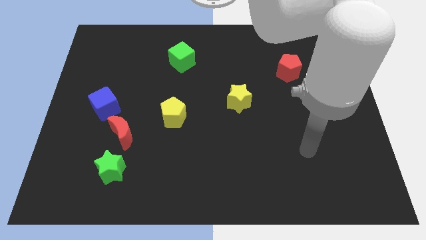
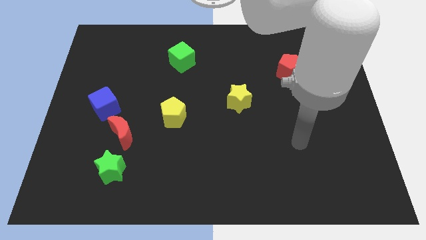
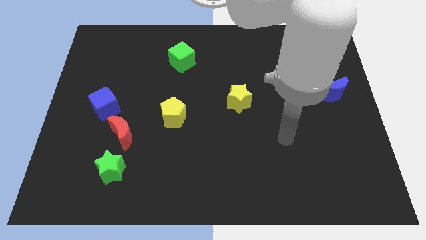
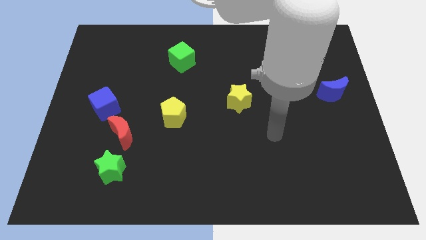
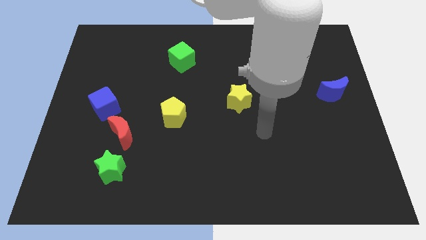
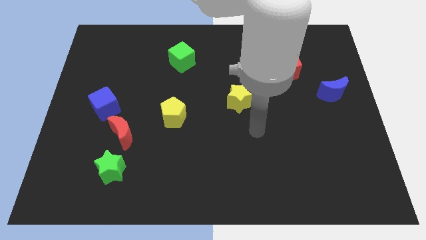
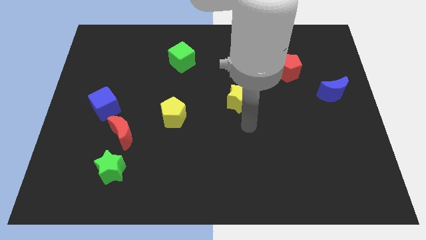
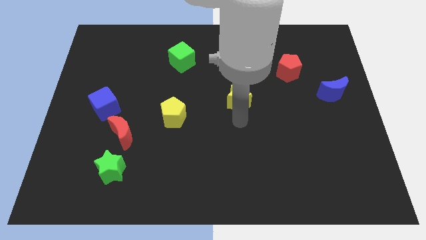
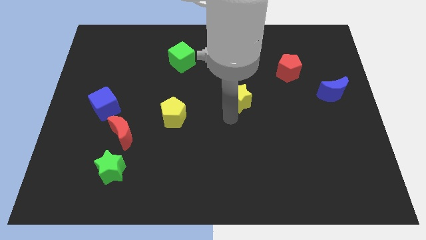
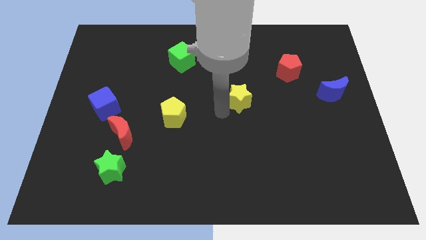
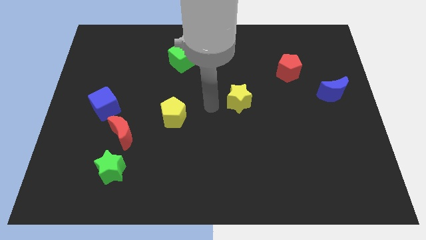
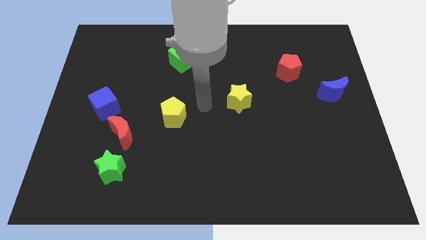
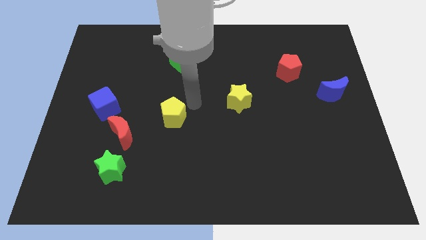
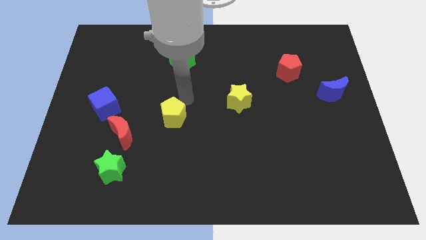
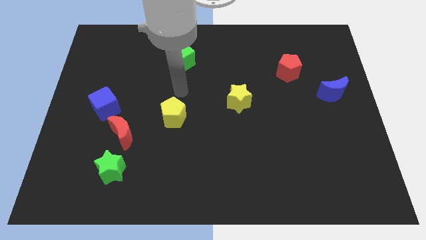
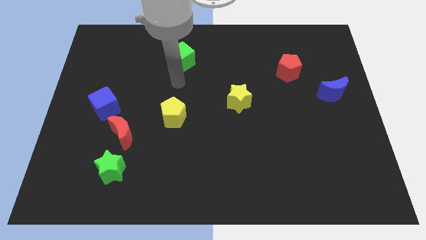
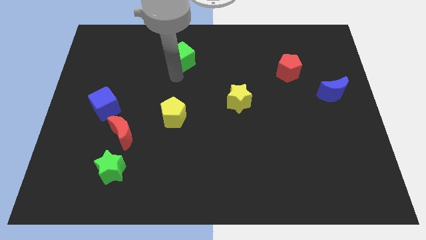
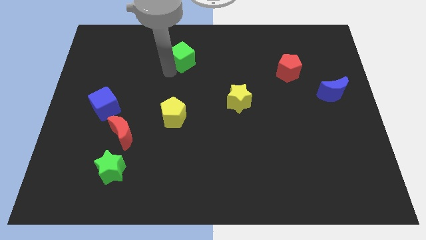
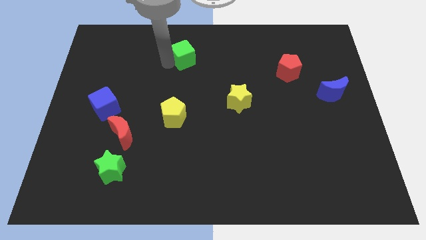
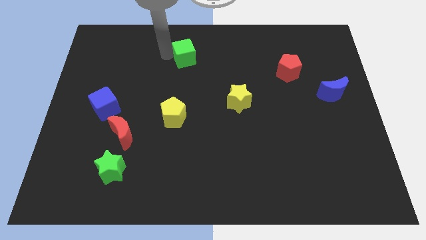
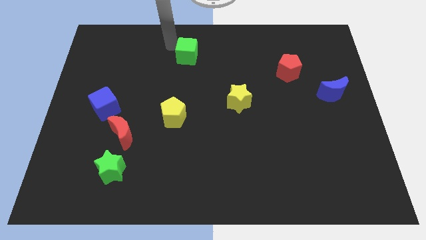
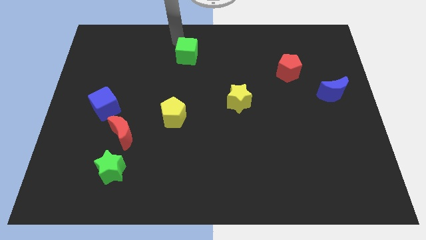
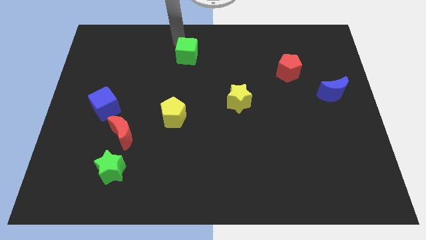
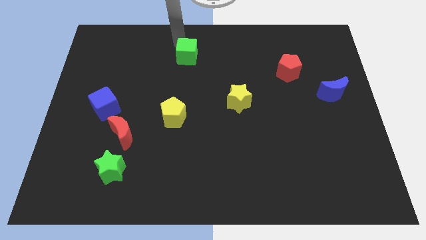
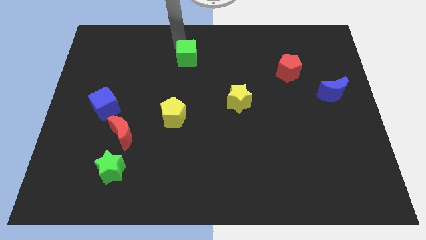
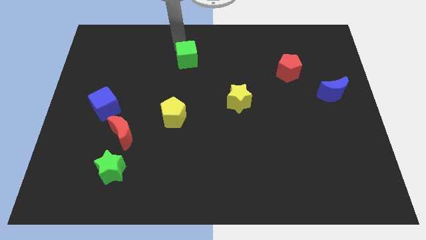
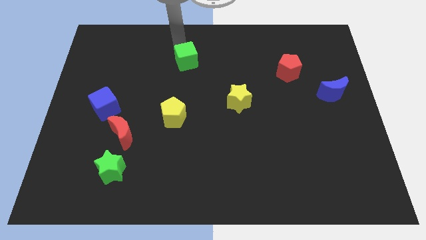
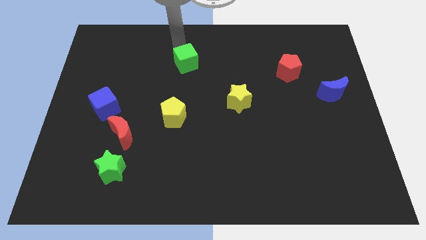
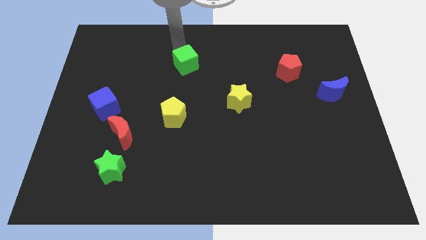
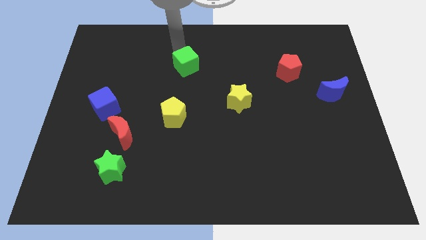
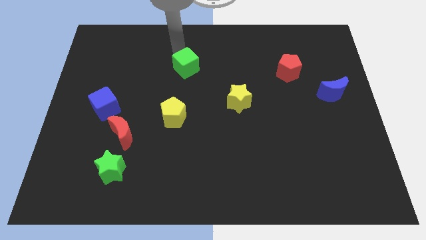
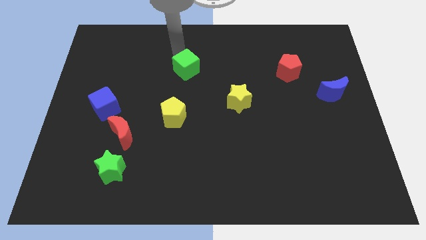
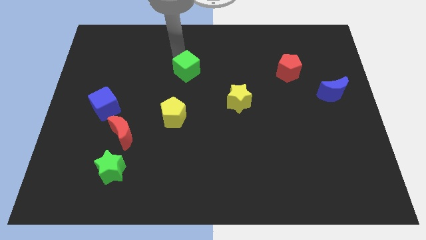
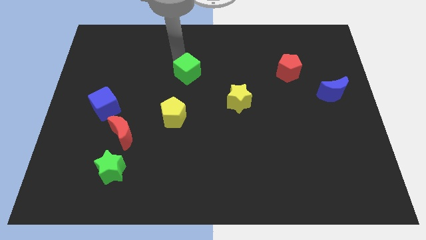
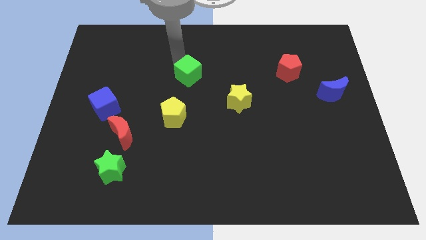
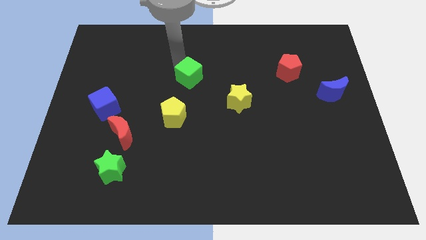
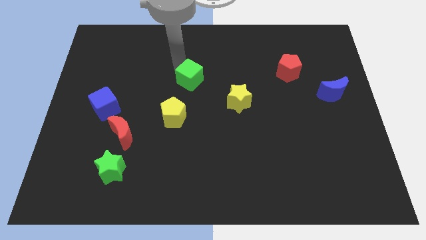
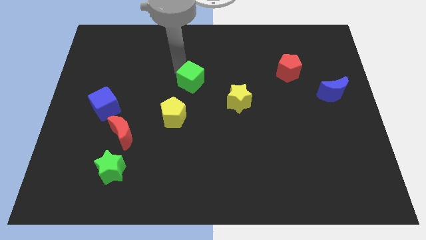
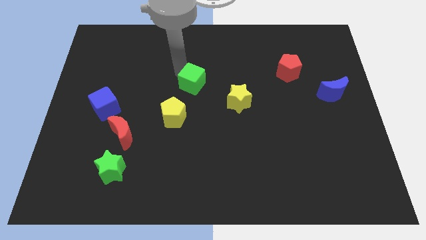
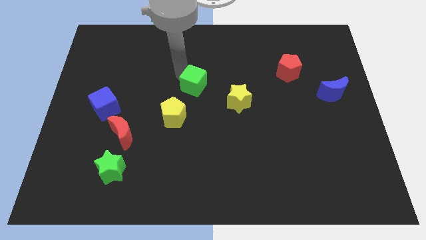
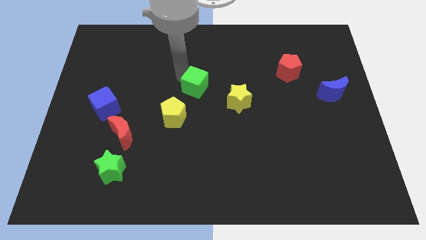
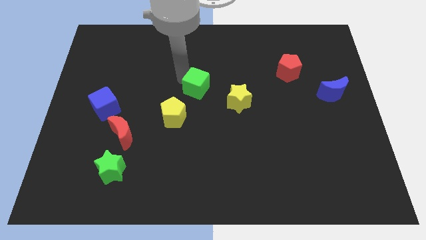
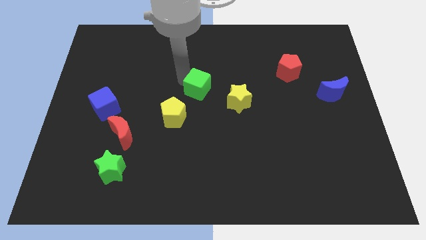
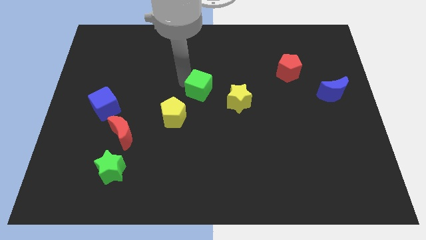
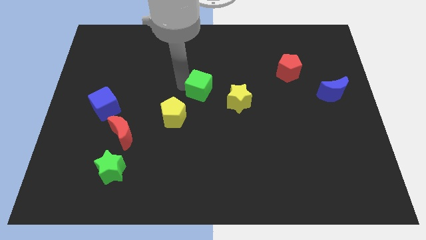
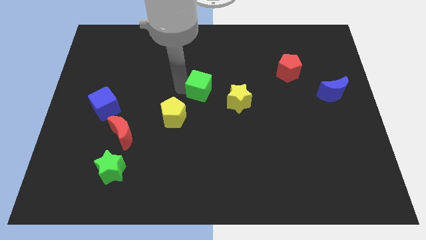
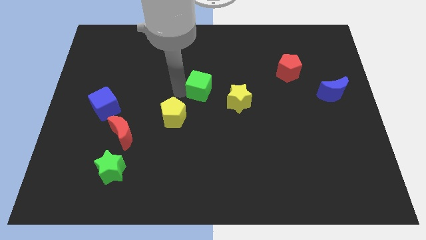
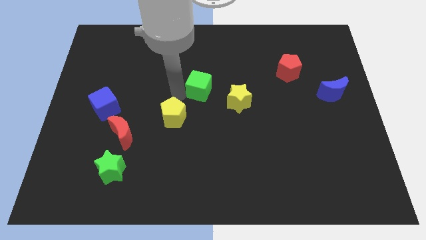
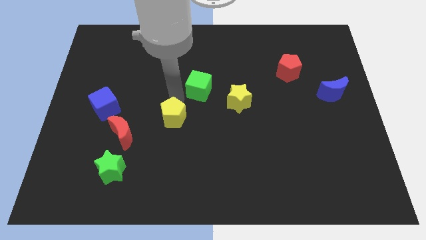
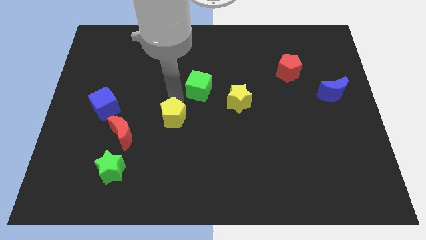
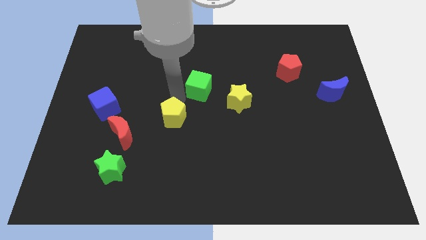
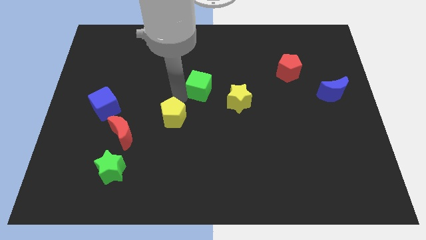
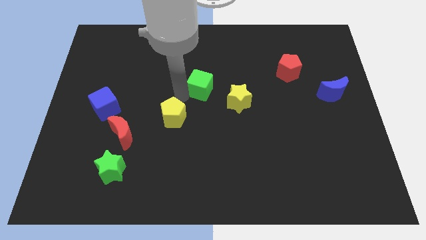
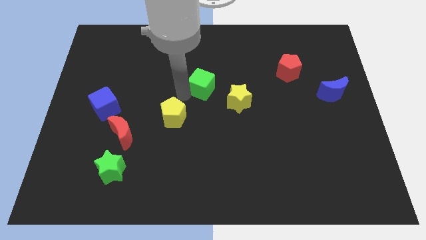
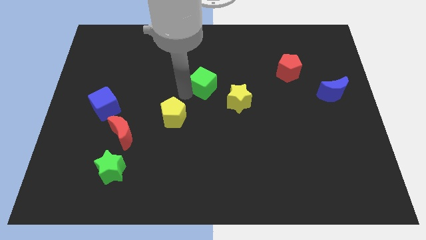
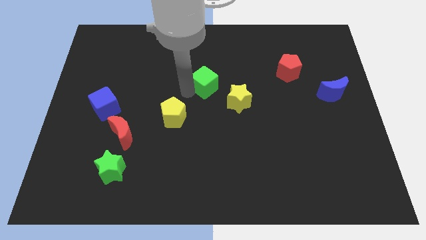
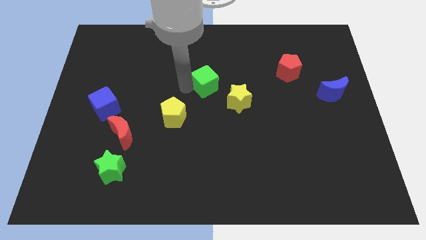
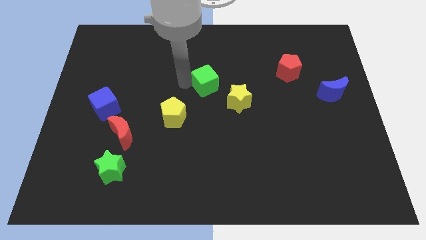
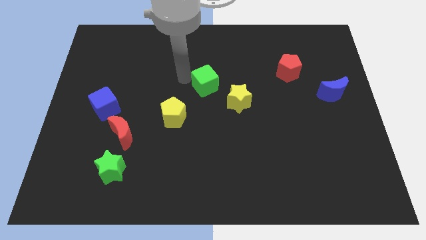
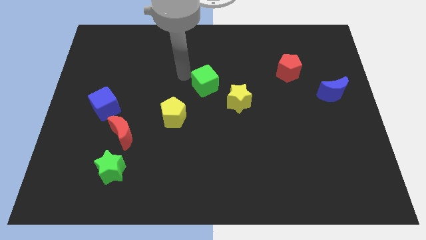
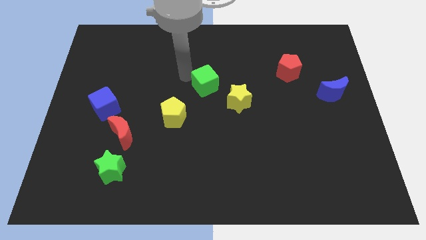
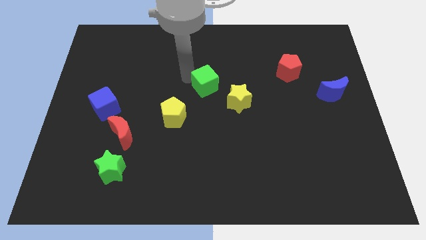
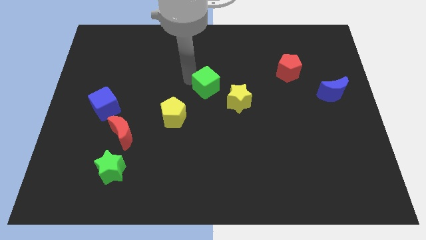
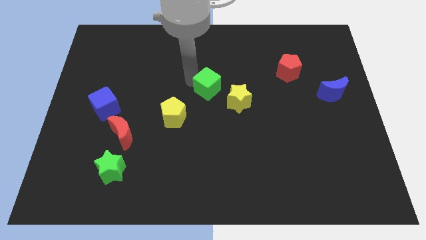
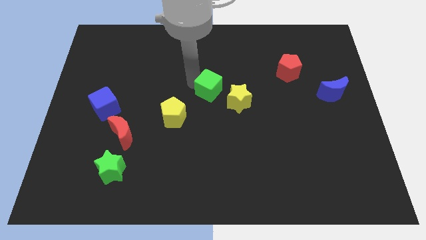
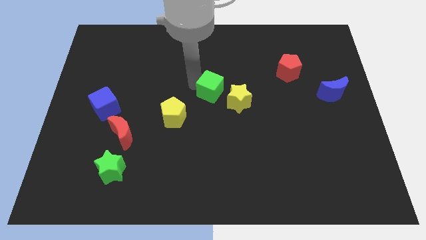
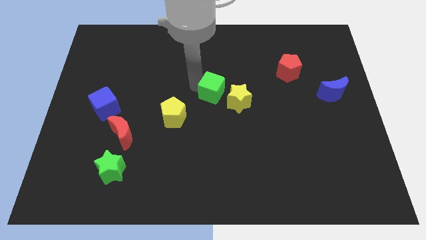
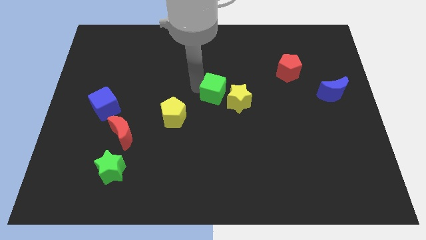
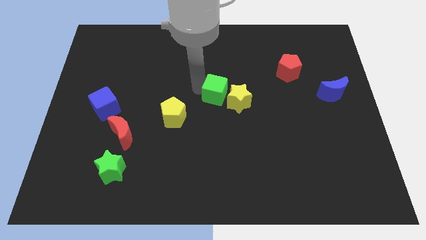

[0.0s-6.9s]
slide the green cube next to the yellow star

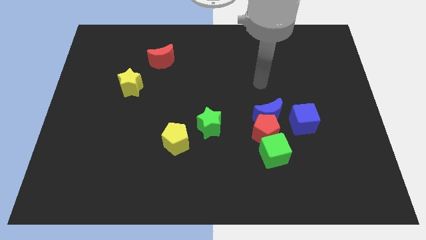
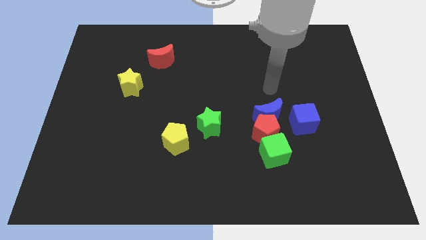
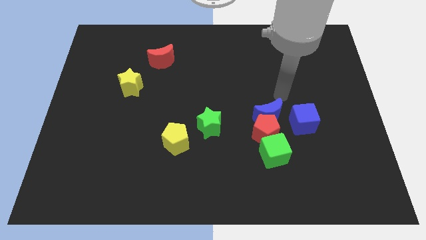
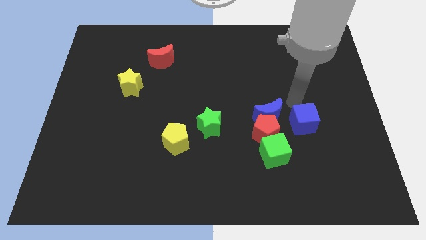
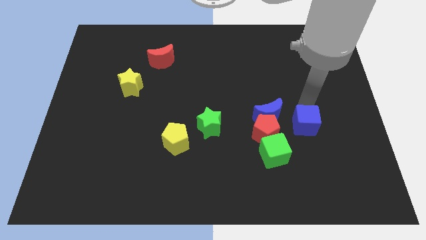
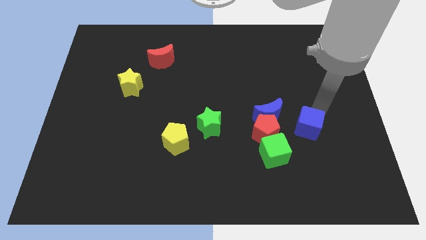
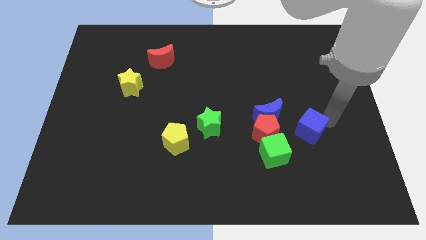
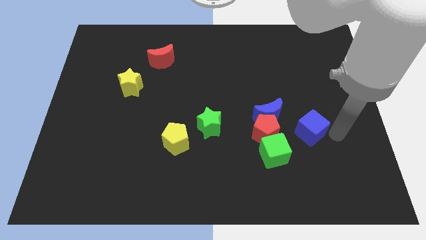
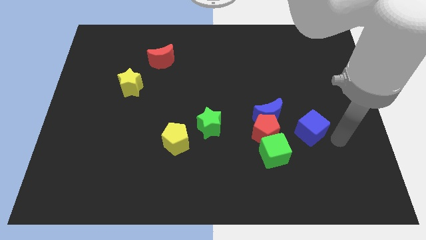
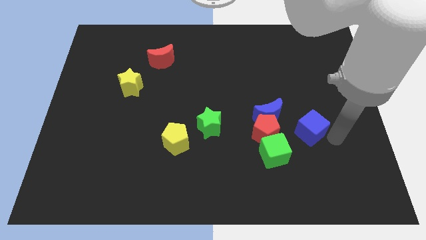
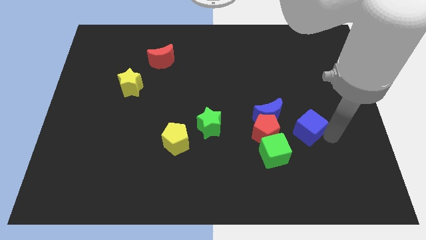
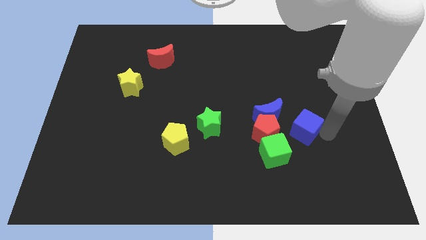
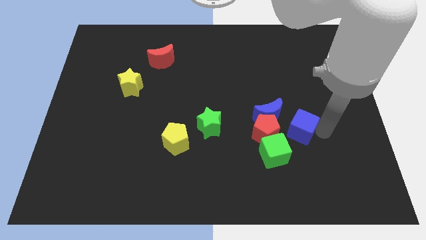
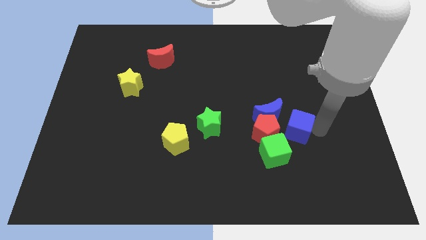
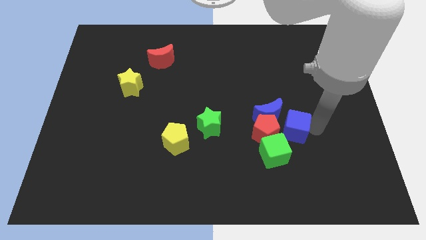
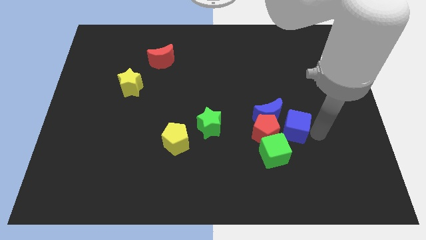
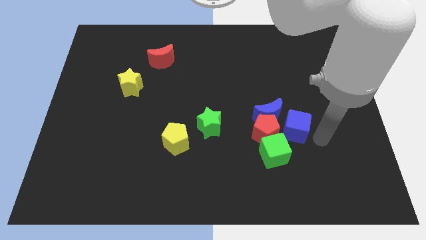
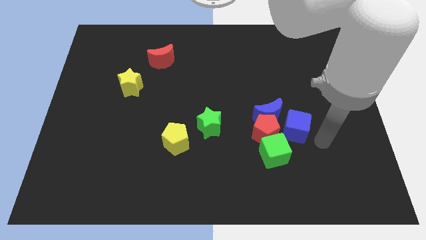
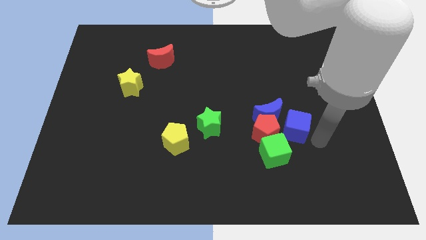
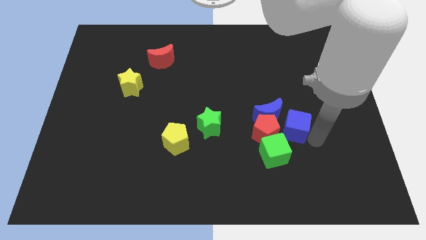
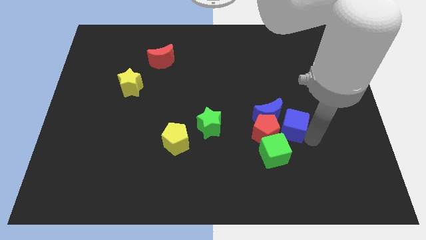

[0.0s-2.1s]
push the blue cube close to the blue moon
